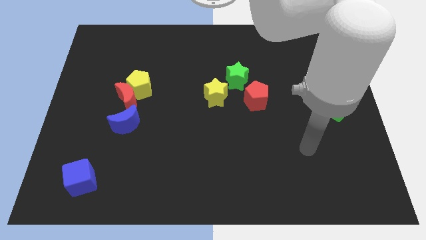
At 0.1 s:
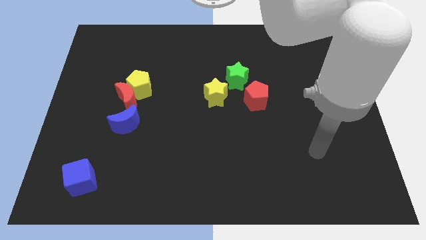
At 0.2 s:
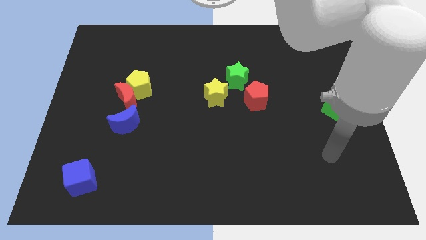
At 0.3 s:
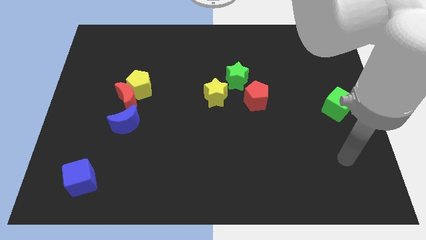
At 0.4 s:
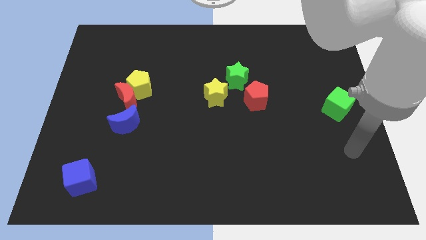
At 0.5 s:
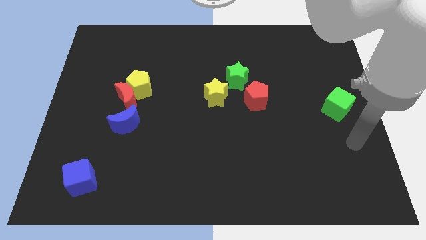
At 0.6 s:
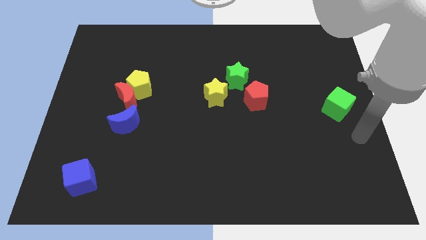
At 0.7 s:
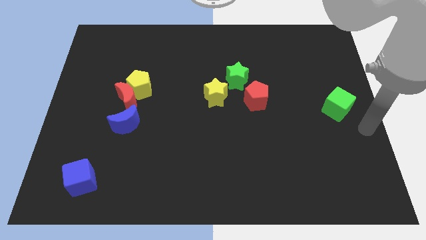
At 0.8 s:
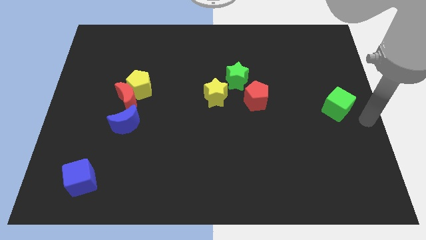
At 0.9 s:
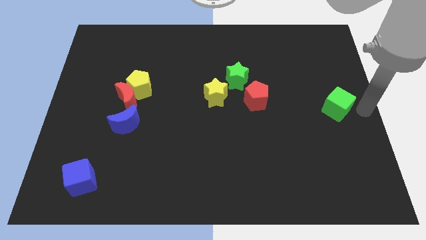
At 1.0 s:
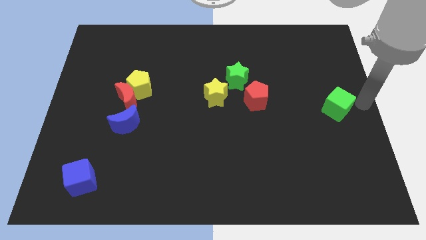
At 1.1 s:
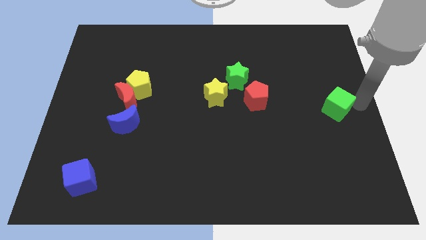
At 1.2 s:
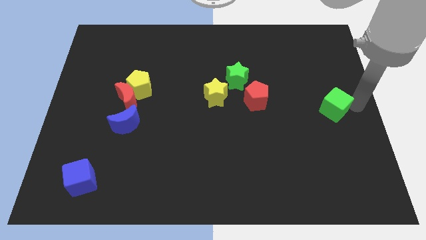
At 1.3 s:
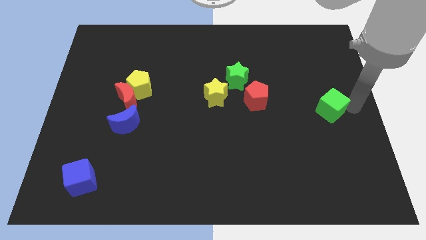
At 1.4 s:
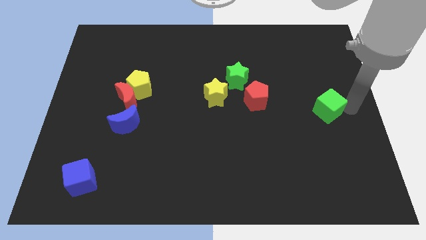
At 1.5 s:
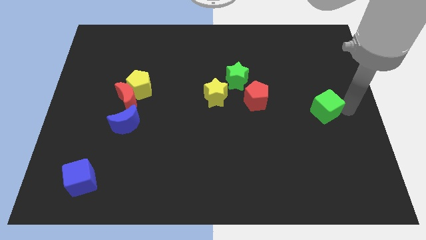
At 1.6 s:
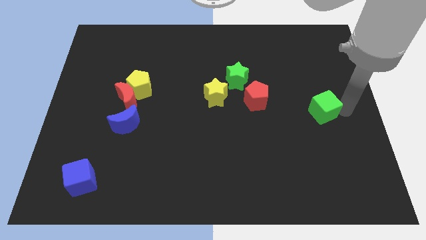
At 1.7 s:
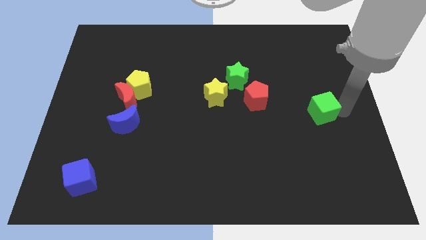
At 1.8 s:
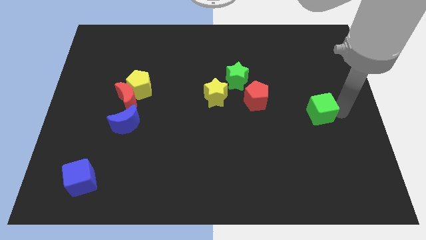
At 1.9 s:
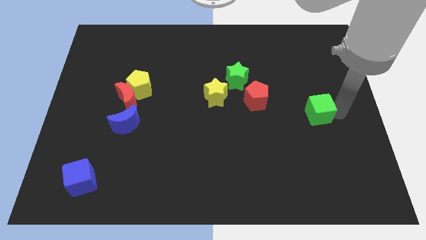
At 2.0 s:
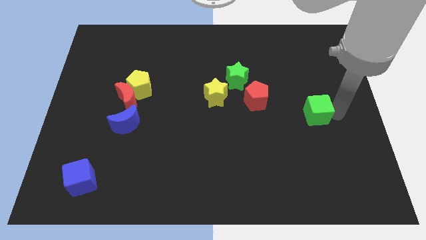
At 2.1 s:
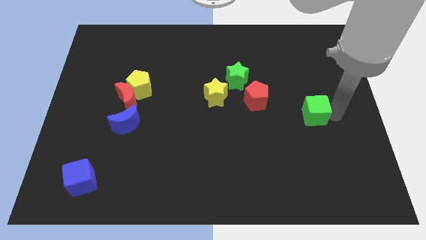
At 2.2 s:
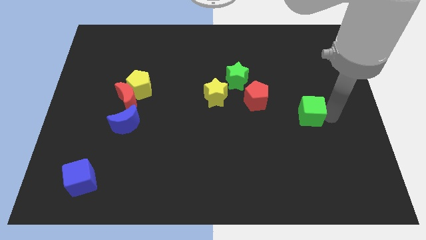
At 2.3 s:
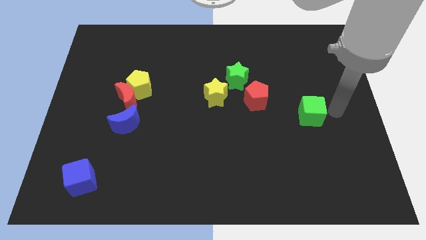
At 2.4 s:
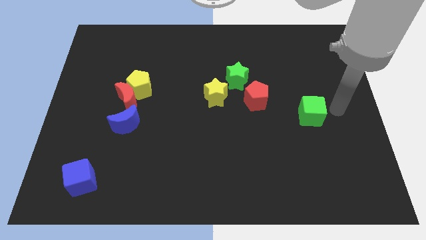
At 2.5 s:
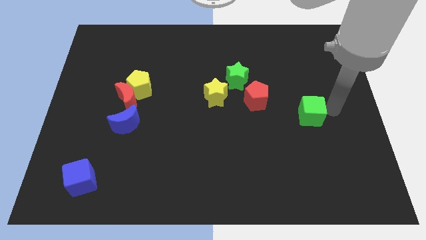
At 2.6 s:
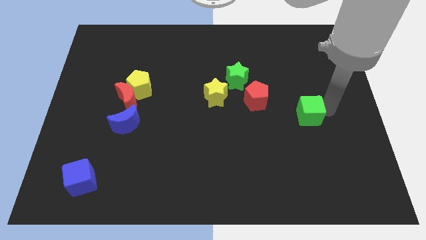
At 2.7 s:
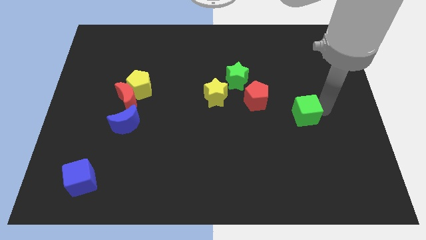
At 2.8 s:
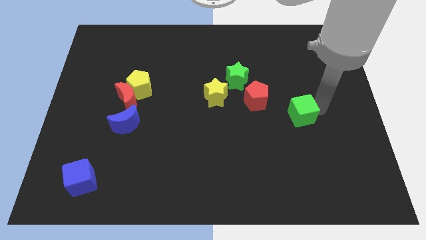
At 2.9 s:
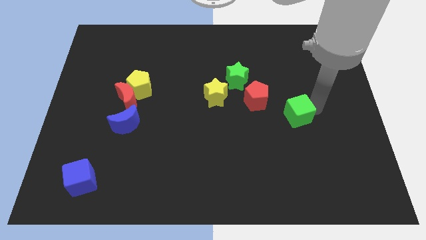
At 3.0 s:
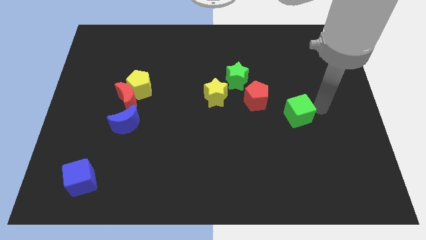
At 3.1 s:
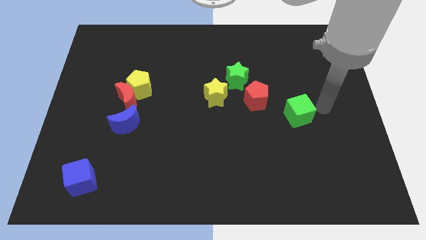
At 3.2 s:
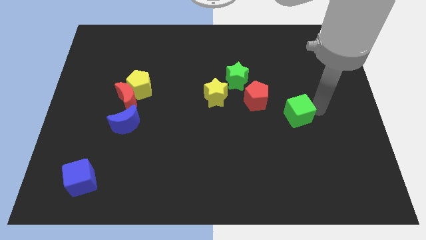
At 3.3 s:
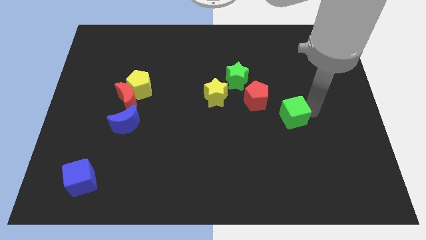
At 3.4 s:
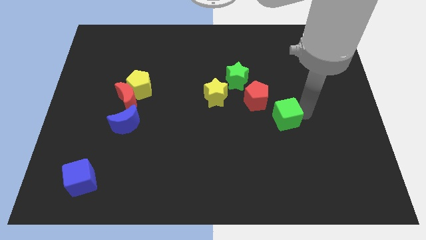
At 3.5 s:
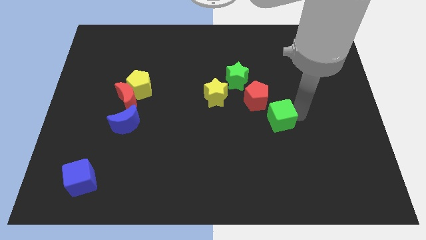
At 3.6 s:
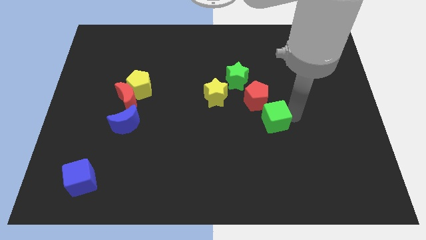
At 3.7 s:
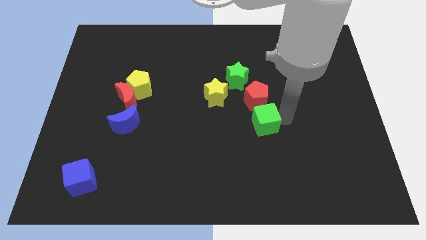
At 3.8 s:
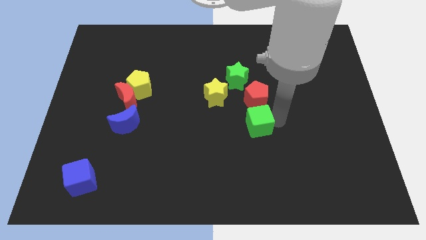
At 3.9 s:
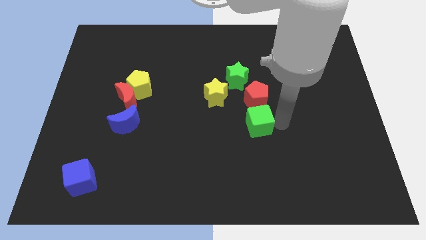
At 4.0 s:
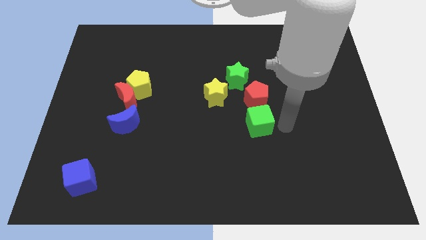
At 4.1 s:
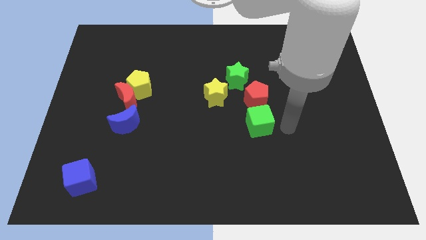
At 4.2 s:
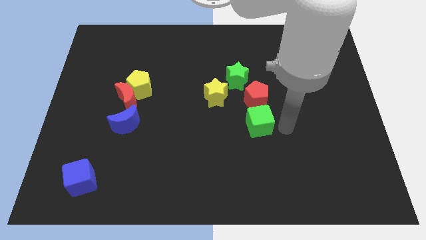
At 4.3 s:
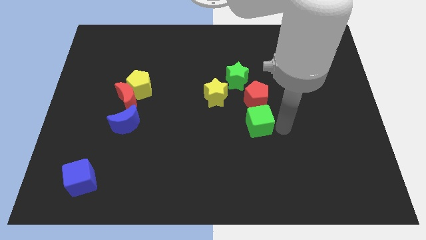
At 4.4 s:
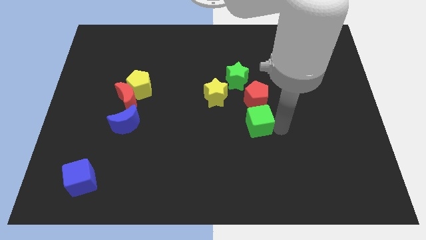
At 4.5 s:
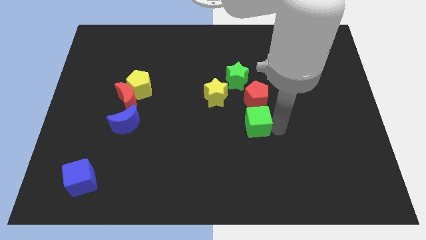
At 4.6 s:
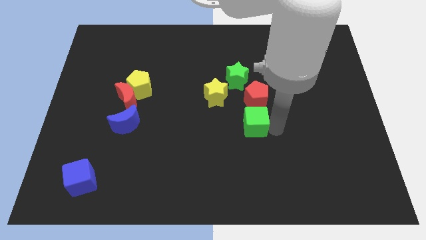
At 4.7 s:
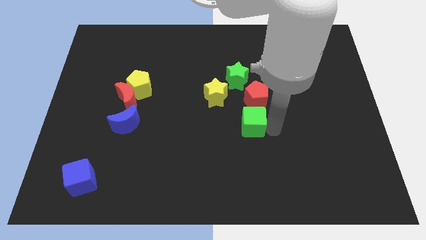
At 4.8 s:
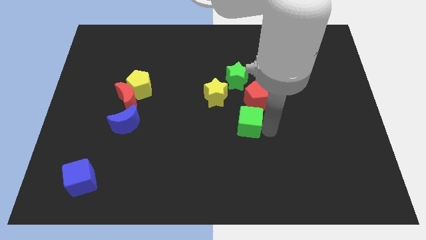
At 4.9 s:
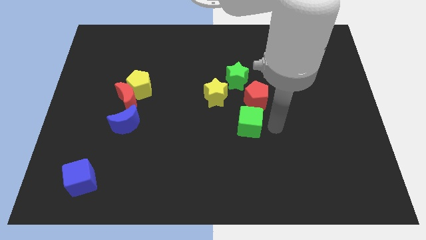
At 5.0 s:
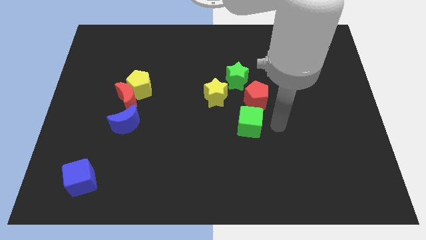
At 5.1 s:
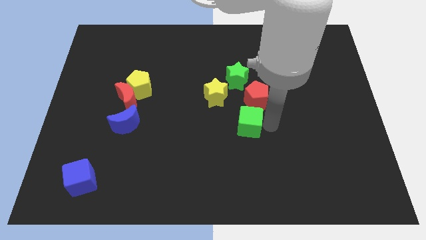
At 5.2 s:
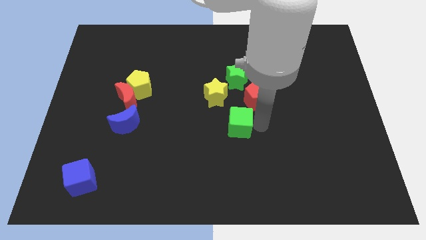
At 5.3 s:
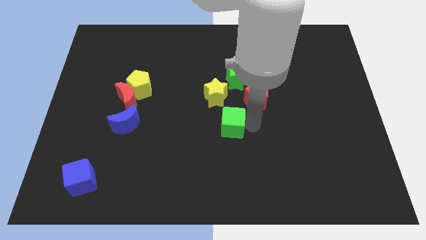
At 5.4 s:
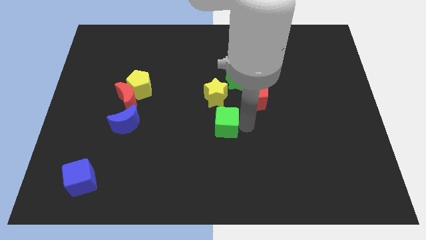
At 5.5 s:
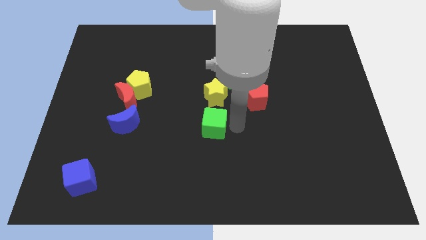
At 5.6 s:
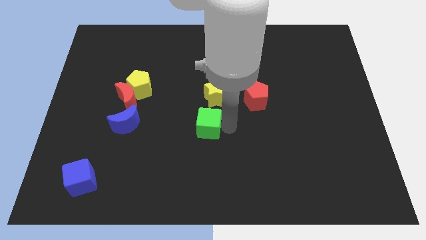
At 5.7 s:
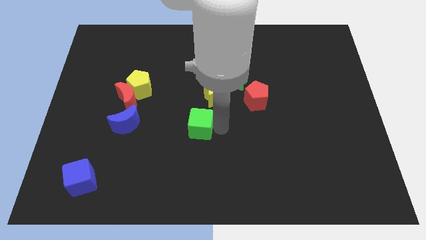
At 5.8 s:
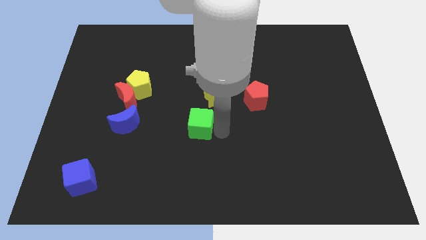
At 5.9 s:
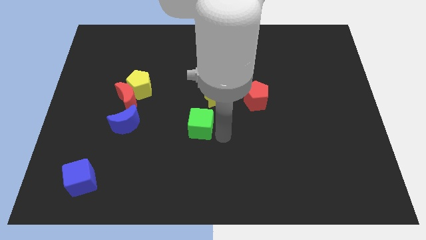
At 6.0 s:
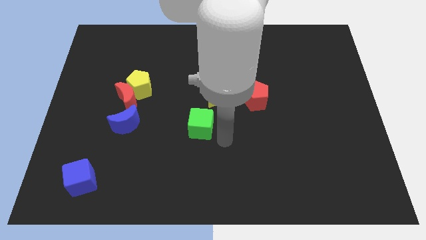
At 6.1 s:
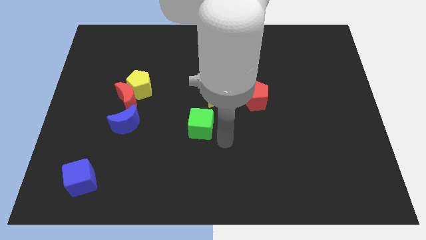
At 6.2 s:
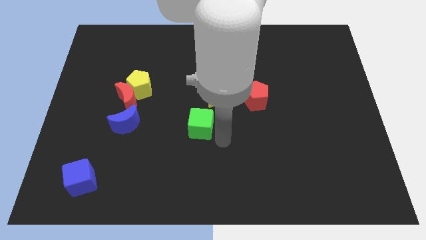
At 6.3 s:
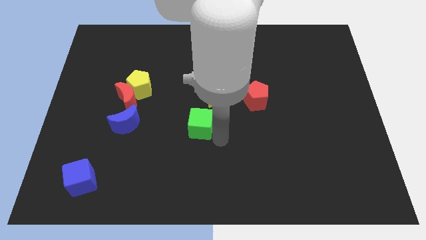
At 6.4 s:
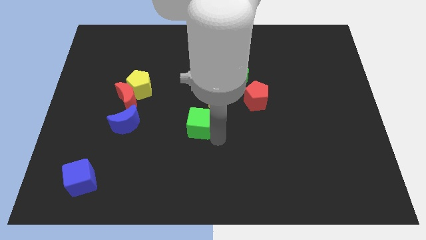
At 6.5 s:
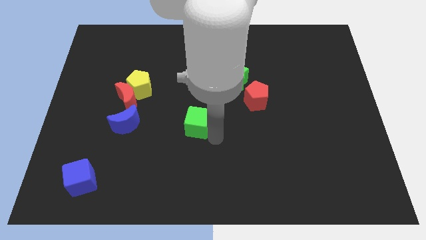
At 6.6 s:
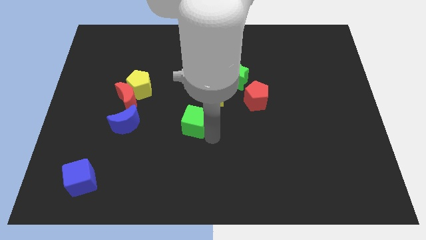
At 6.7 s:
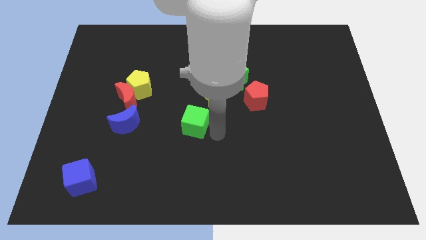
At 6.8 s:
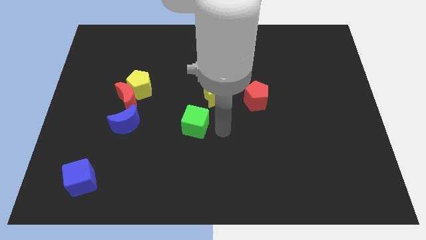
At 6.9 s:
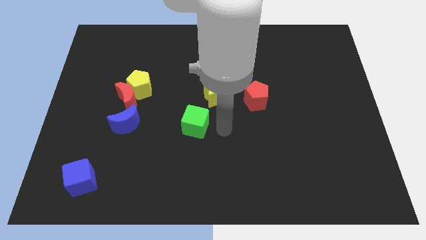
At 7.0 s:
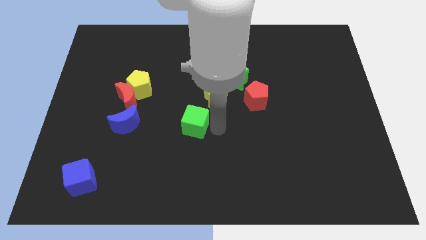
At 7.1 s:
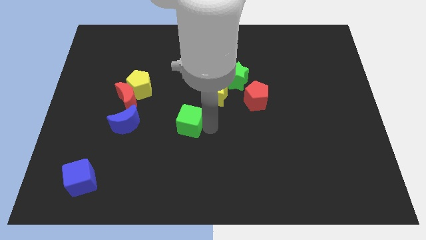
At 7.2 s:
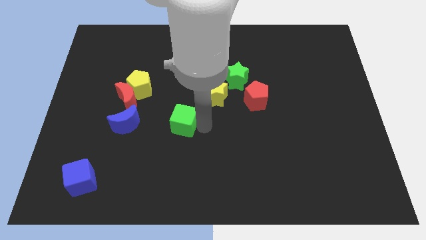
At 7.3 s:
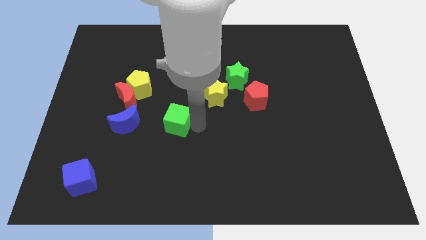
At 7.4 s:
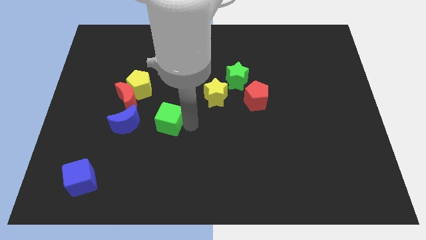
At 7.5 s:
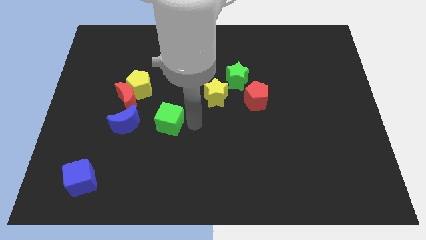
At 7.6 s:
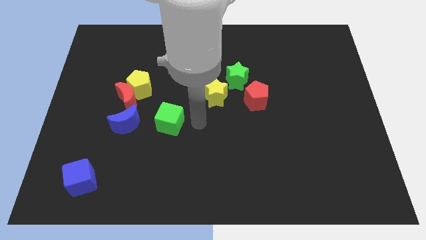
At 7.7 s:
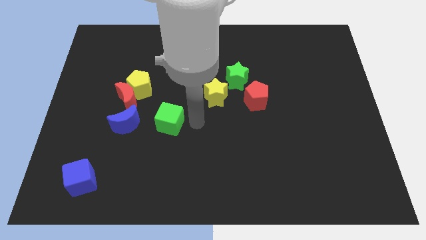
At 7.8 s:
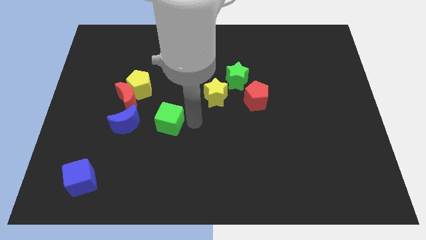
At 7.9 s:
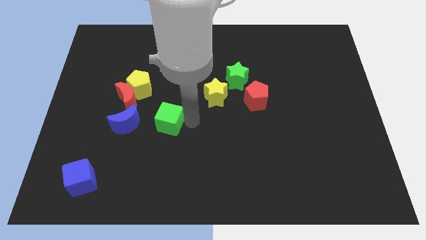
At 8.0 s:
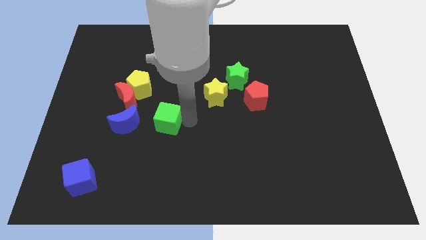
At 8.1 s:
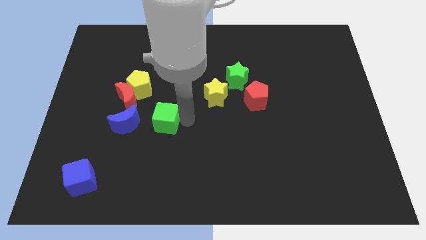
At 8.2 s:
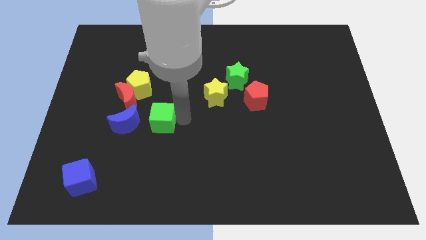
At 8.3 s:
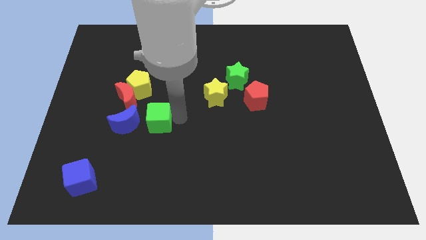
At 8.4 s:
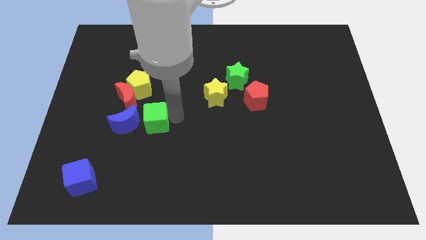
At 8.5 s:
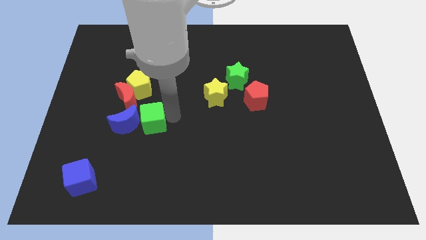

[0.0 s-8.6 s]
push the green cube towards the blue moon
